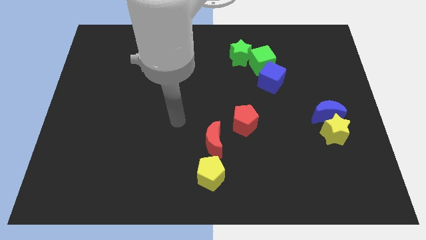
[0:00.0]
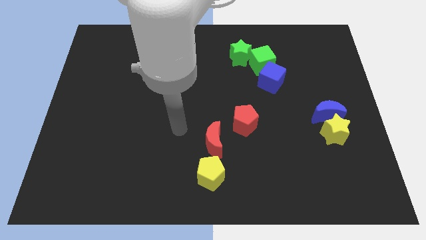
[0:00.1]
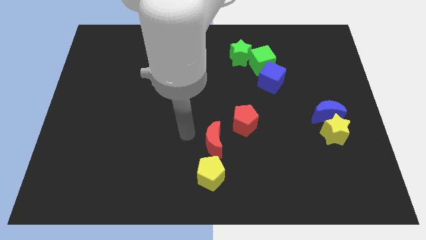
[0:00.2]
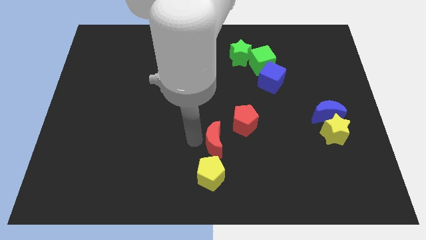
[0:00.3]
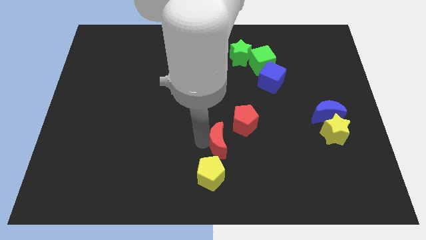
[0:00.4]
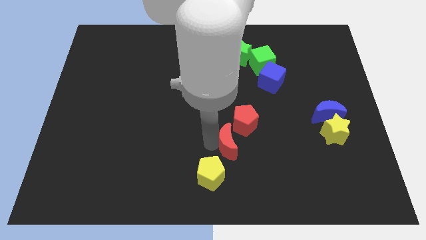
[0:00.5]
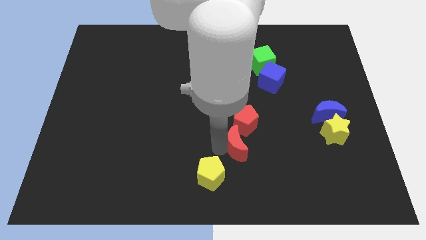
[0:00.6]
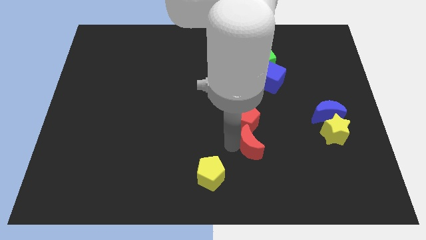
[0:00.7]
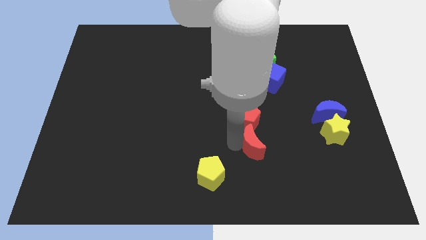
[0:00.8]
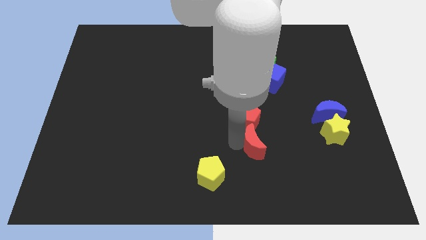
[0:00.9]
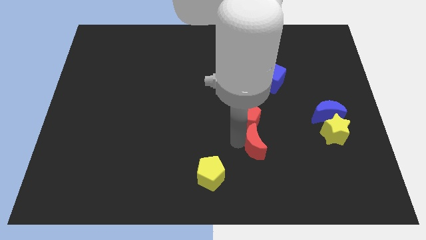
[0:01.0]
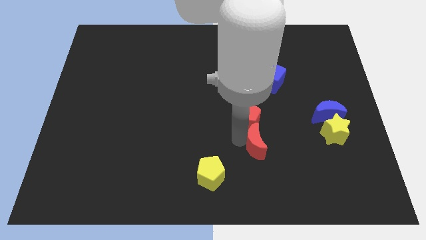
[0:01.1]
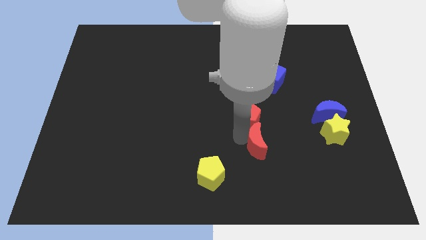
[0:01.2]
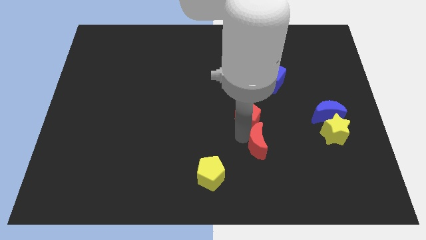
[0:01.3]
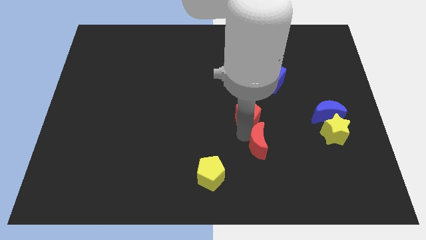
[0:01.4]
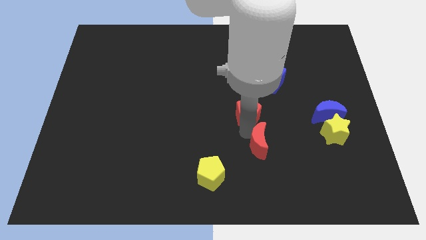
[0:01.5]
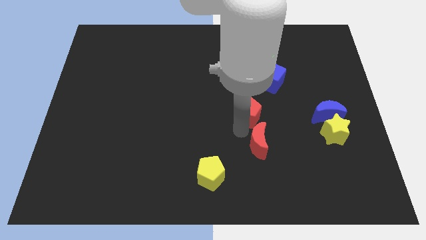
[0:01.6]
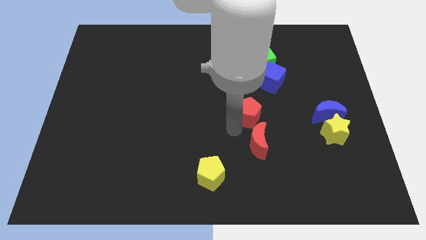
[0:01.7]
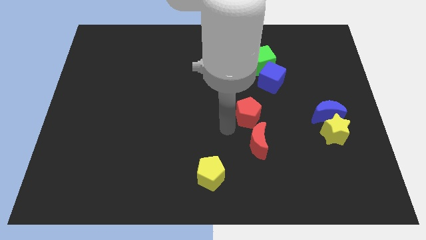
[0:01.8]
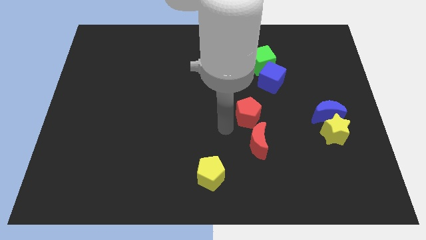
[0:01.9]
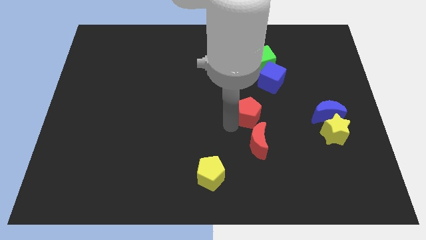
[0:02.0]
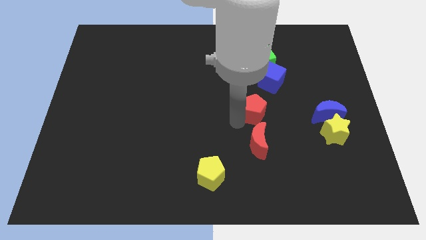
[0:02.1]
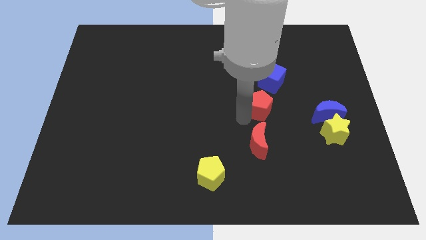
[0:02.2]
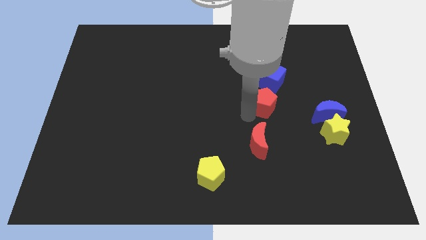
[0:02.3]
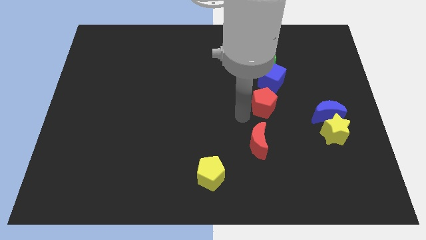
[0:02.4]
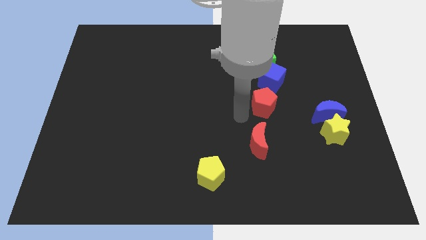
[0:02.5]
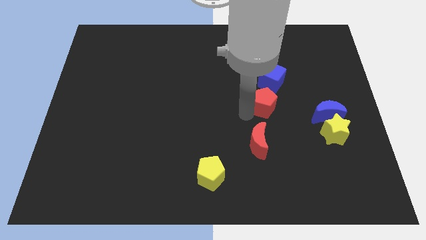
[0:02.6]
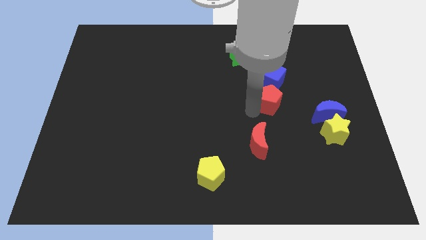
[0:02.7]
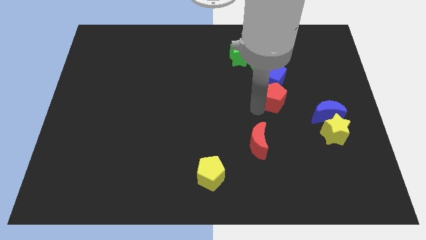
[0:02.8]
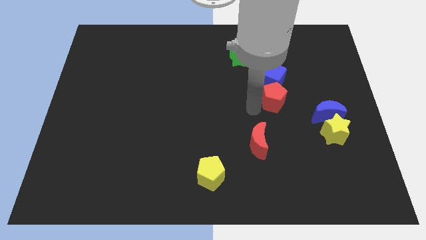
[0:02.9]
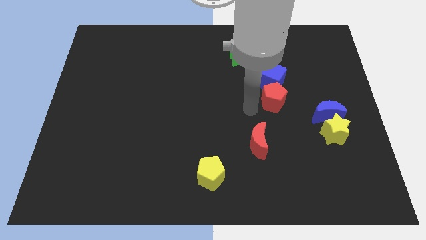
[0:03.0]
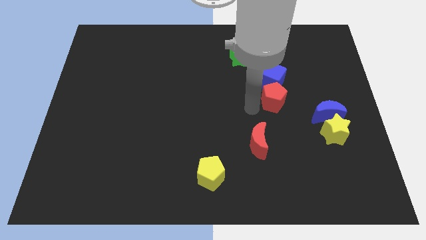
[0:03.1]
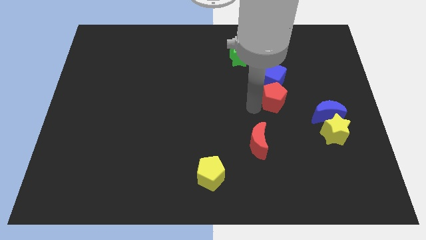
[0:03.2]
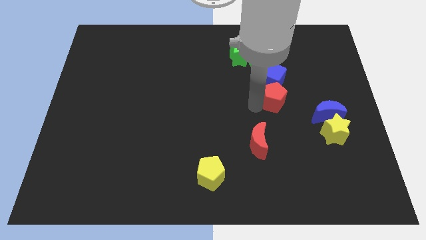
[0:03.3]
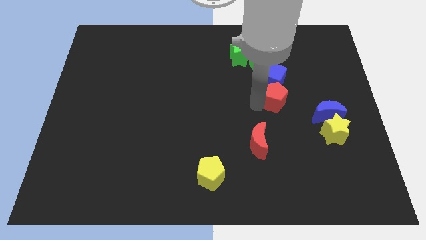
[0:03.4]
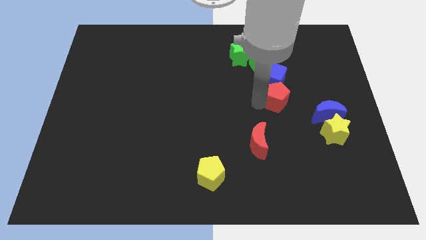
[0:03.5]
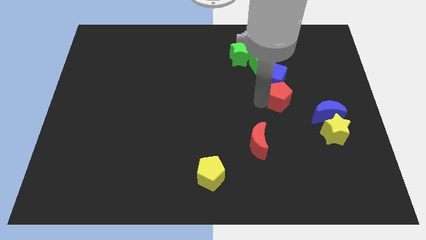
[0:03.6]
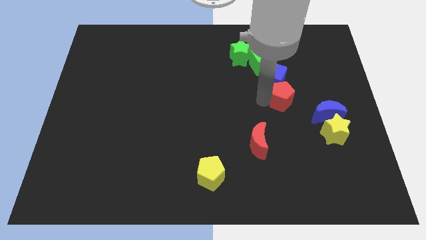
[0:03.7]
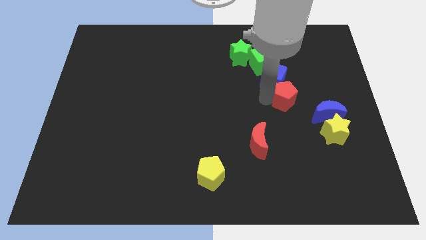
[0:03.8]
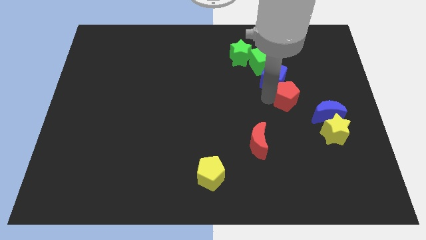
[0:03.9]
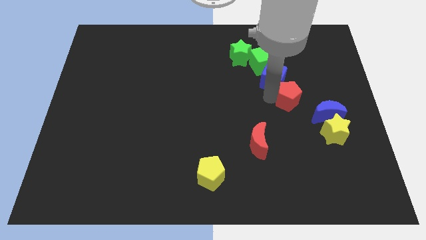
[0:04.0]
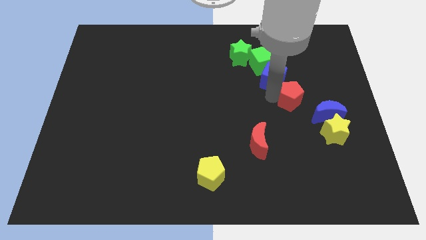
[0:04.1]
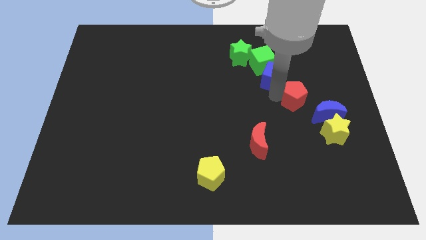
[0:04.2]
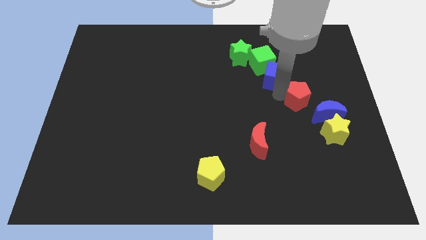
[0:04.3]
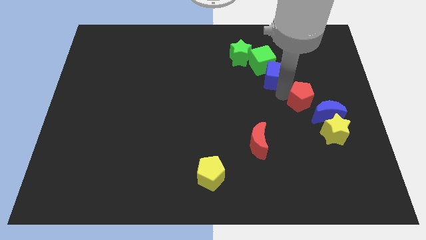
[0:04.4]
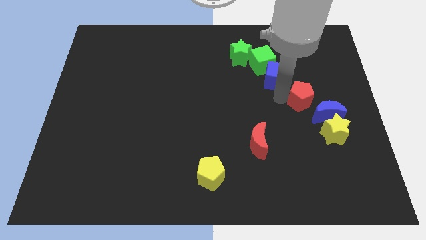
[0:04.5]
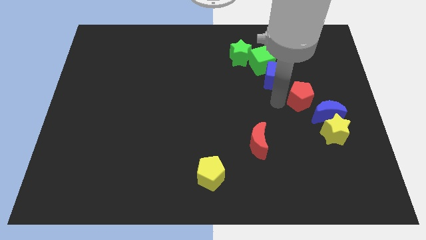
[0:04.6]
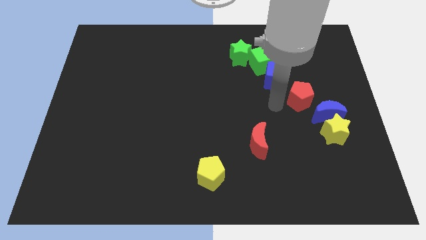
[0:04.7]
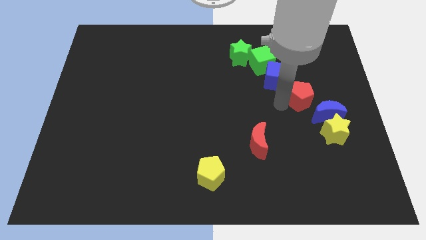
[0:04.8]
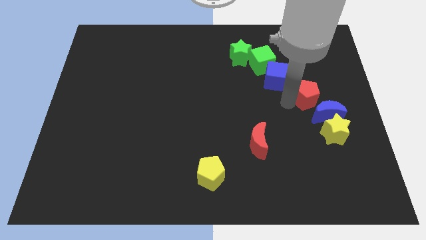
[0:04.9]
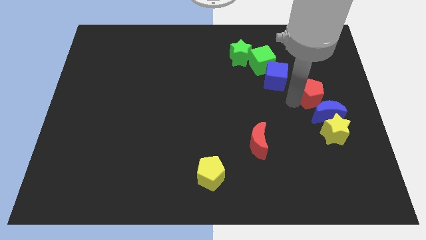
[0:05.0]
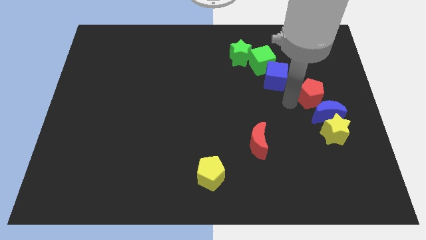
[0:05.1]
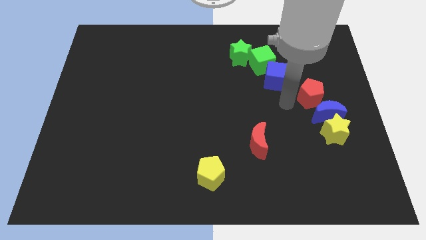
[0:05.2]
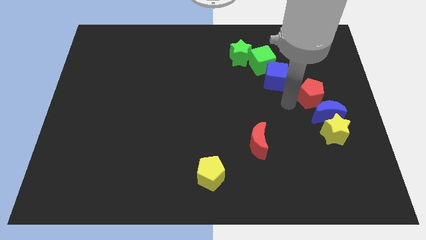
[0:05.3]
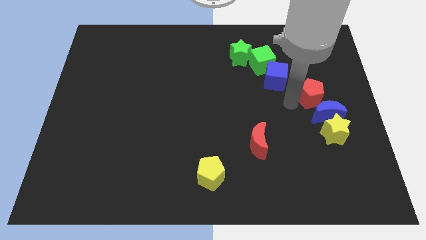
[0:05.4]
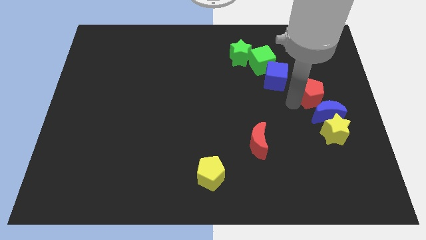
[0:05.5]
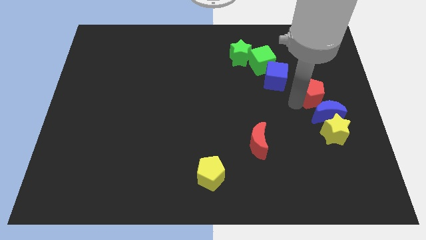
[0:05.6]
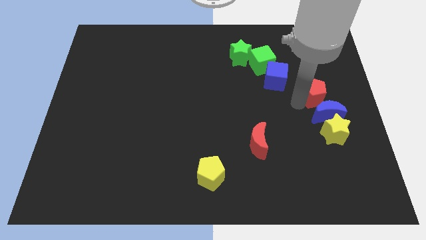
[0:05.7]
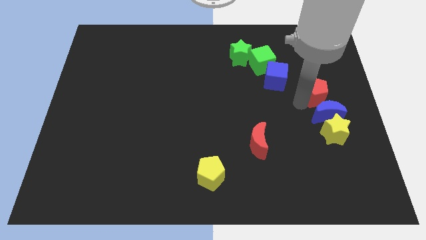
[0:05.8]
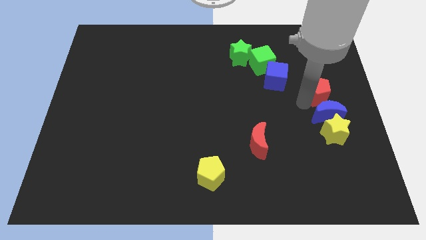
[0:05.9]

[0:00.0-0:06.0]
put the red pentagon to the right side of the board

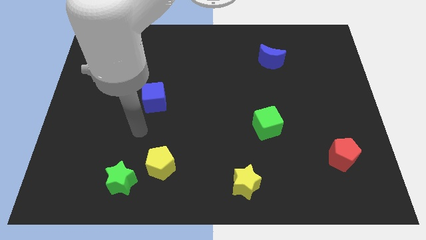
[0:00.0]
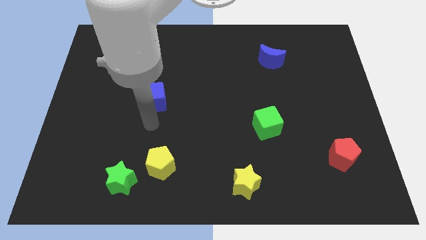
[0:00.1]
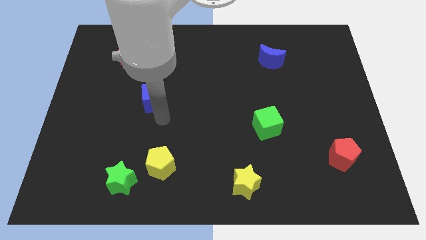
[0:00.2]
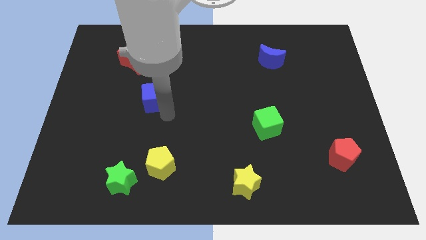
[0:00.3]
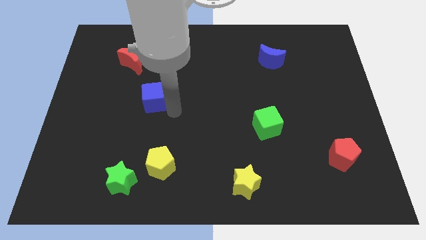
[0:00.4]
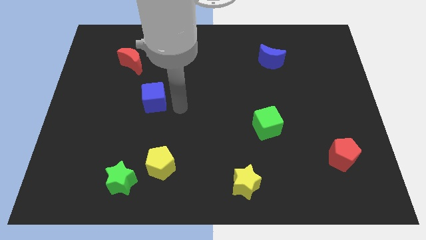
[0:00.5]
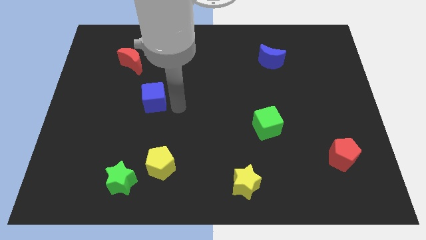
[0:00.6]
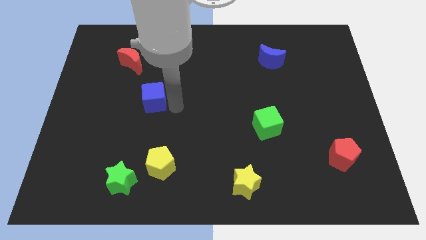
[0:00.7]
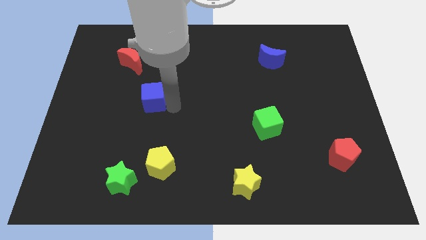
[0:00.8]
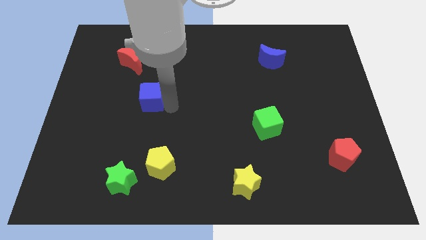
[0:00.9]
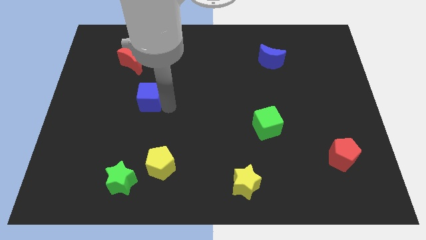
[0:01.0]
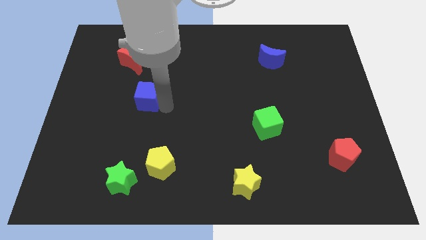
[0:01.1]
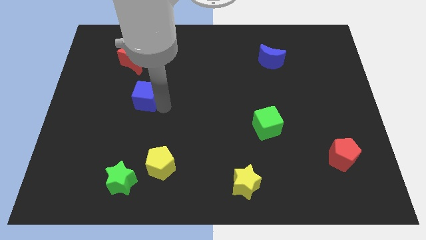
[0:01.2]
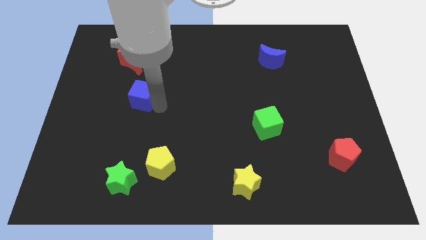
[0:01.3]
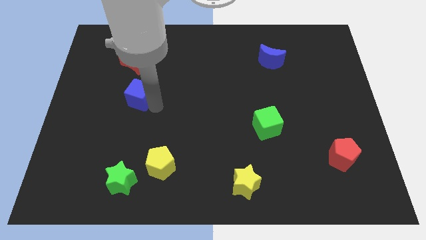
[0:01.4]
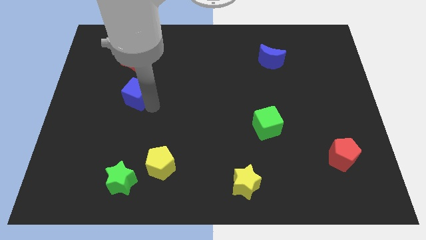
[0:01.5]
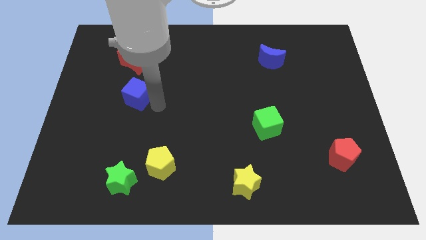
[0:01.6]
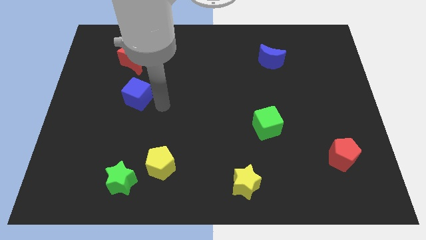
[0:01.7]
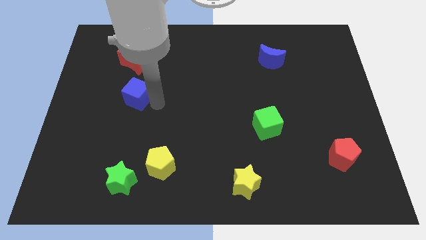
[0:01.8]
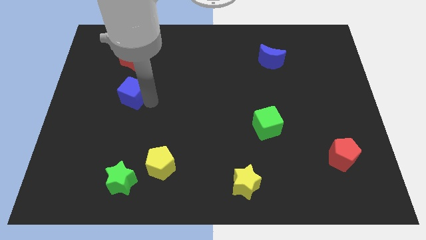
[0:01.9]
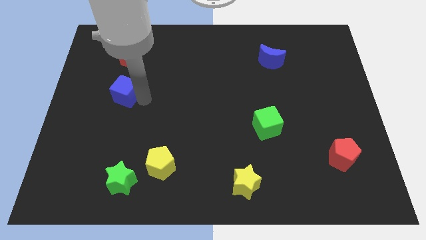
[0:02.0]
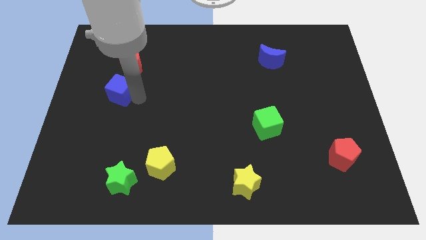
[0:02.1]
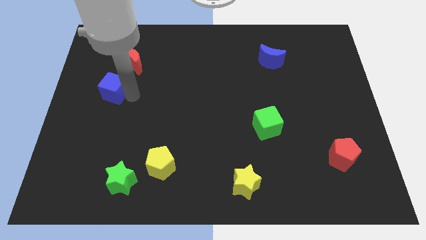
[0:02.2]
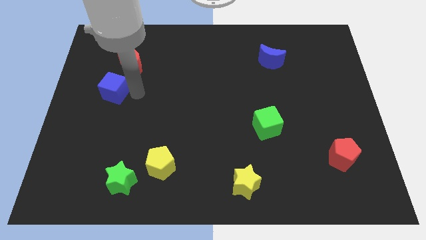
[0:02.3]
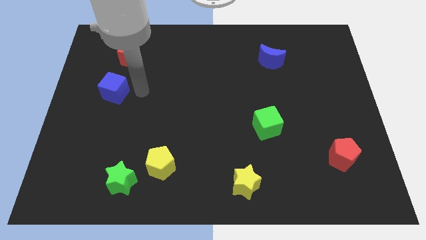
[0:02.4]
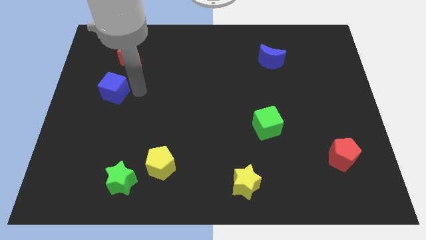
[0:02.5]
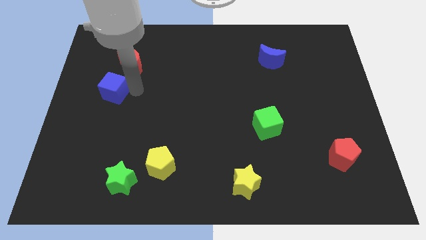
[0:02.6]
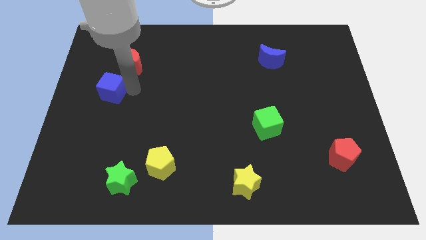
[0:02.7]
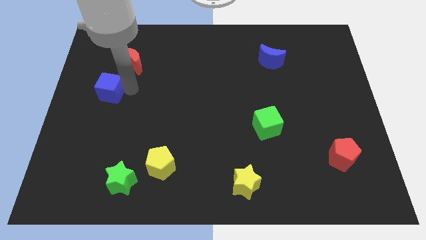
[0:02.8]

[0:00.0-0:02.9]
move the blue cube to the left side
